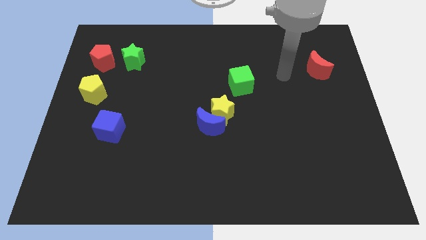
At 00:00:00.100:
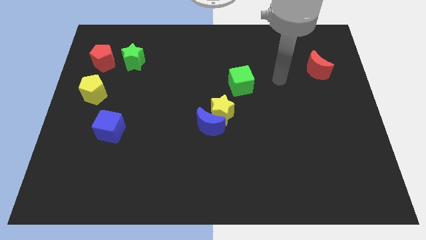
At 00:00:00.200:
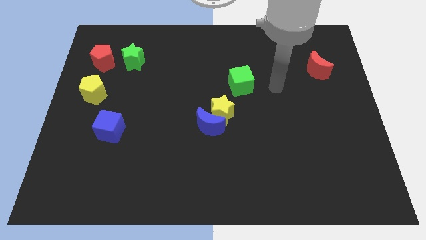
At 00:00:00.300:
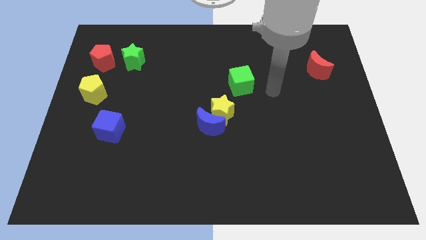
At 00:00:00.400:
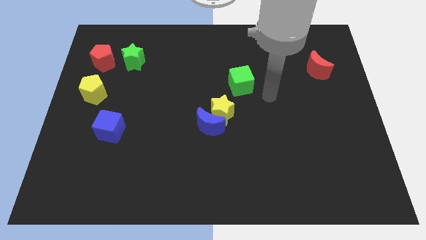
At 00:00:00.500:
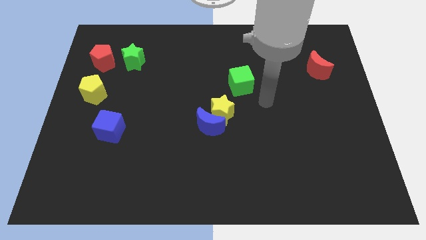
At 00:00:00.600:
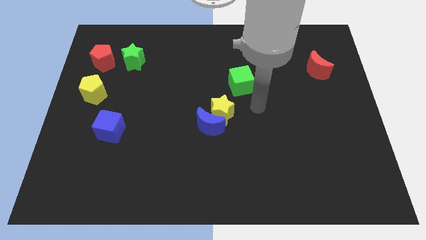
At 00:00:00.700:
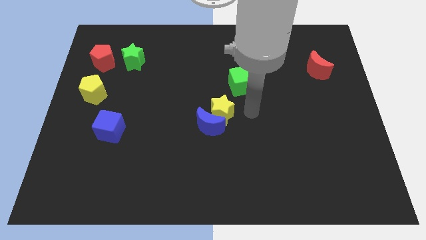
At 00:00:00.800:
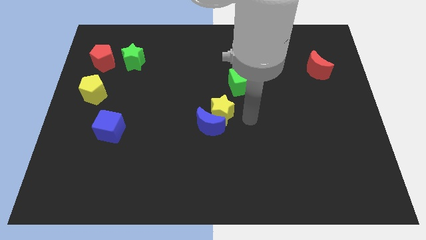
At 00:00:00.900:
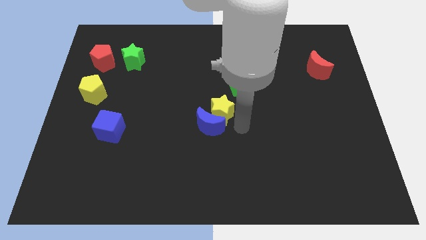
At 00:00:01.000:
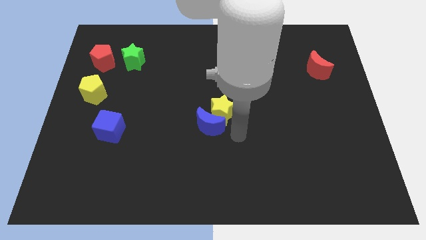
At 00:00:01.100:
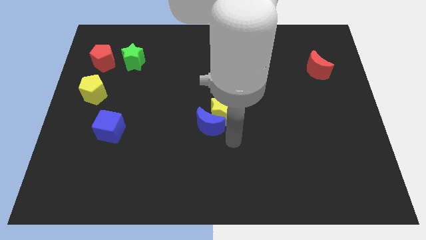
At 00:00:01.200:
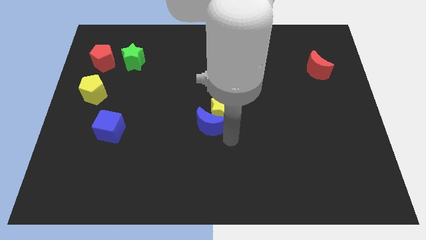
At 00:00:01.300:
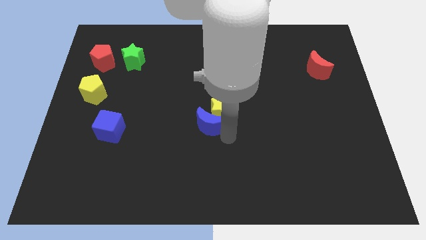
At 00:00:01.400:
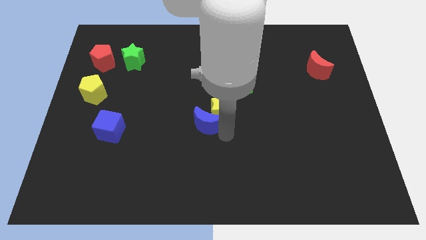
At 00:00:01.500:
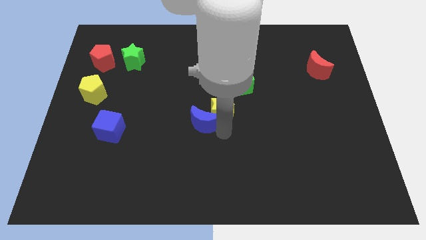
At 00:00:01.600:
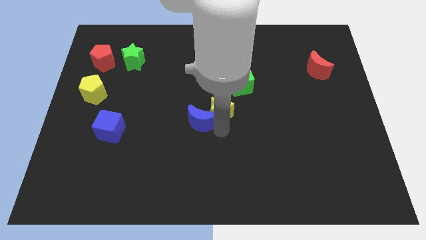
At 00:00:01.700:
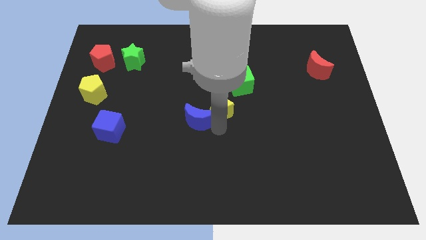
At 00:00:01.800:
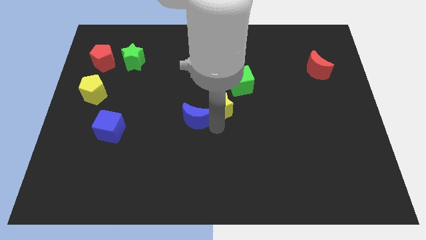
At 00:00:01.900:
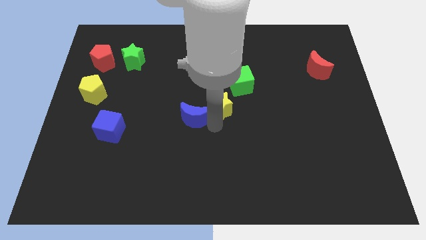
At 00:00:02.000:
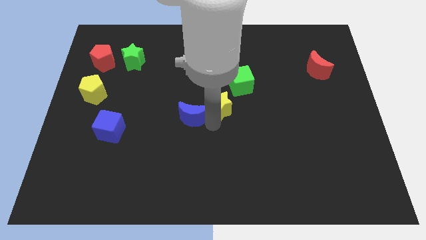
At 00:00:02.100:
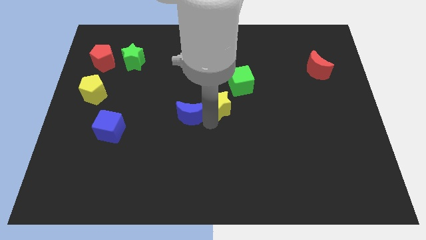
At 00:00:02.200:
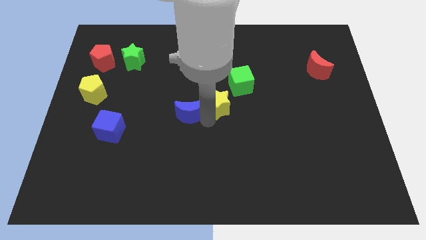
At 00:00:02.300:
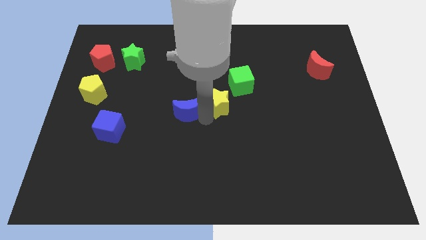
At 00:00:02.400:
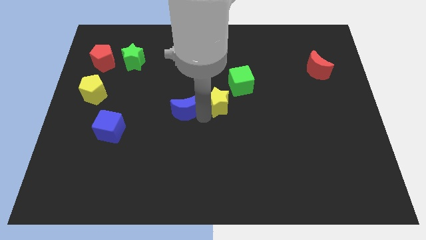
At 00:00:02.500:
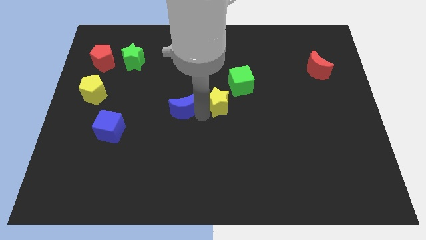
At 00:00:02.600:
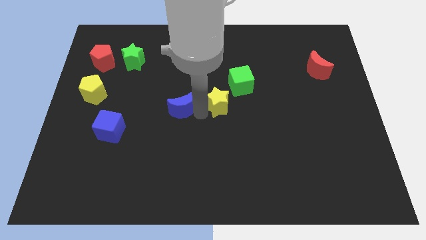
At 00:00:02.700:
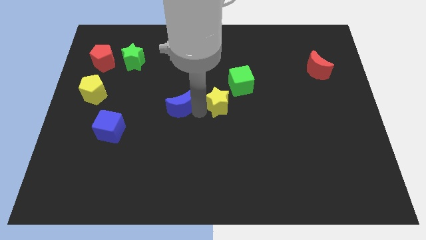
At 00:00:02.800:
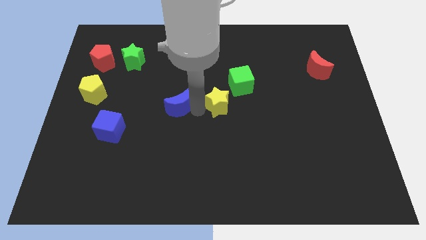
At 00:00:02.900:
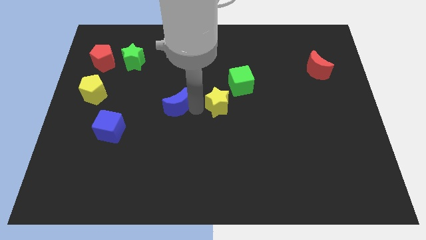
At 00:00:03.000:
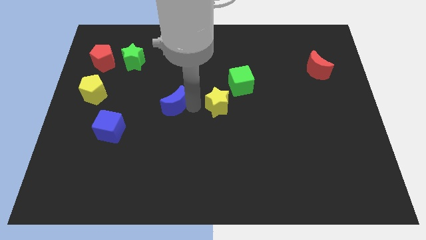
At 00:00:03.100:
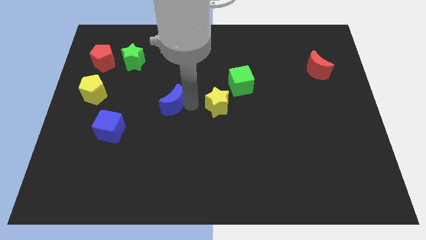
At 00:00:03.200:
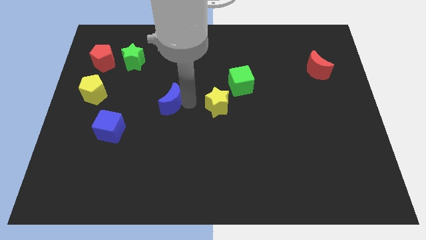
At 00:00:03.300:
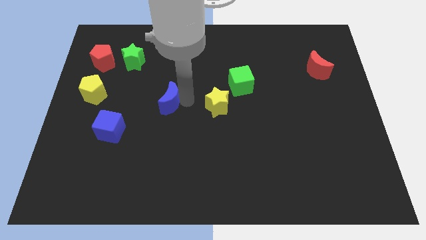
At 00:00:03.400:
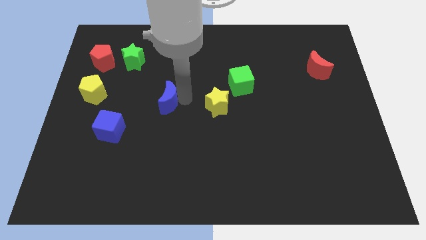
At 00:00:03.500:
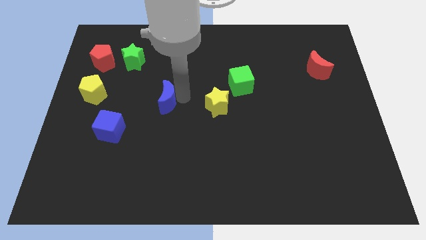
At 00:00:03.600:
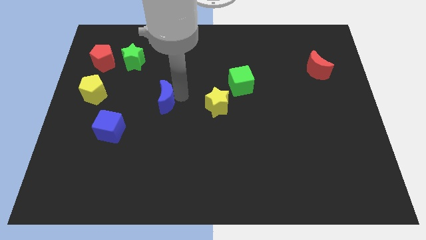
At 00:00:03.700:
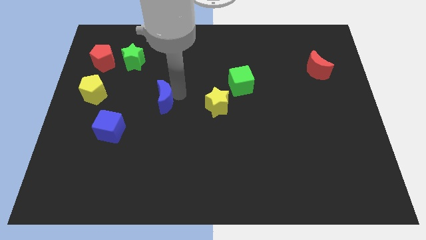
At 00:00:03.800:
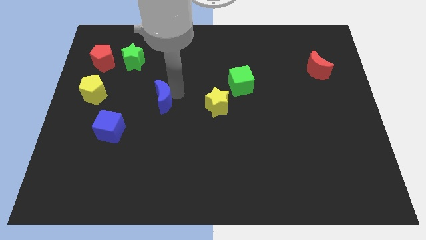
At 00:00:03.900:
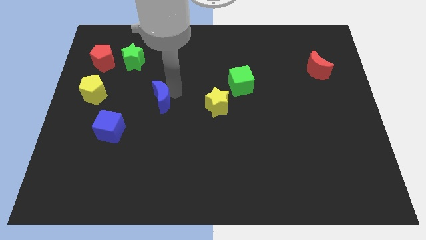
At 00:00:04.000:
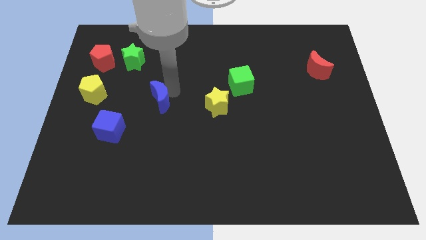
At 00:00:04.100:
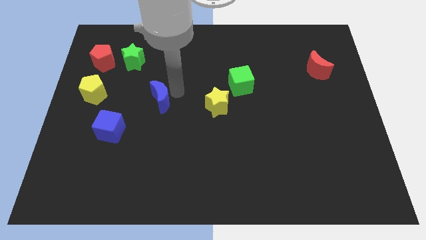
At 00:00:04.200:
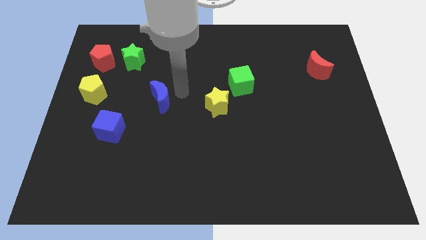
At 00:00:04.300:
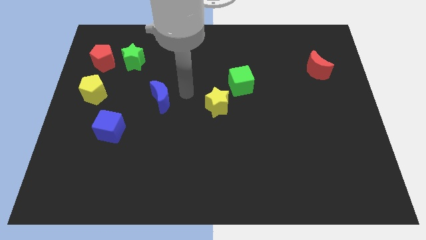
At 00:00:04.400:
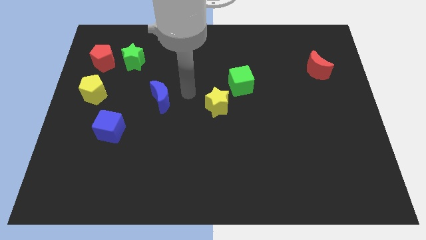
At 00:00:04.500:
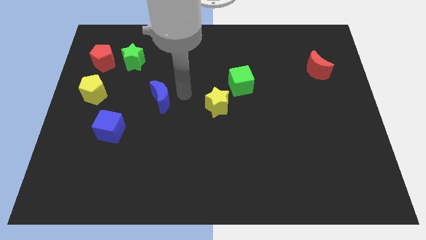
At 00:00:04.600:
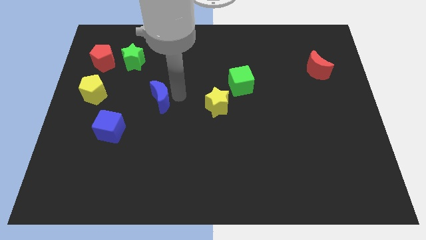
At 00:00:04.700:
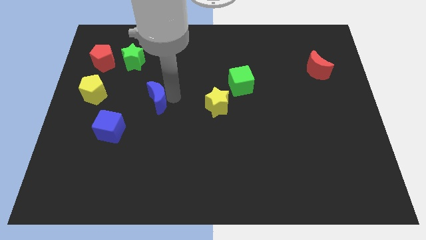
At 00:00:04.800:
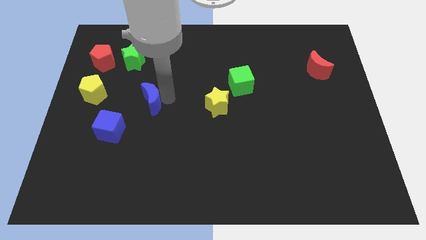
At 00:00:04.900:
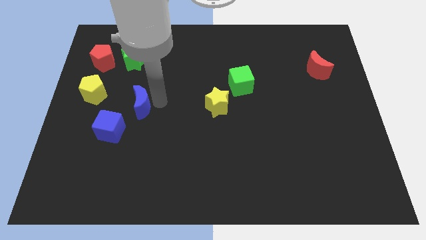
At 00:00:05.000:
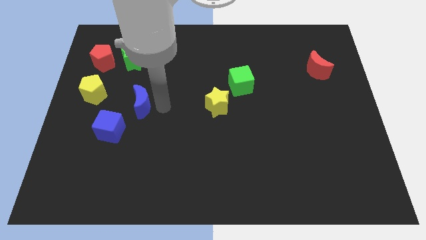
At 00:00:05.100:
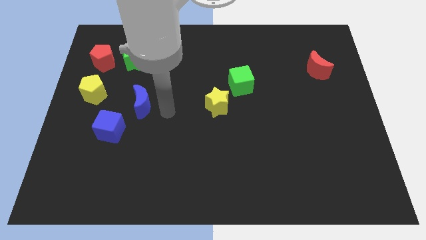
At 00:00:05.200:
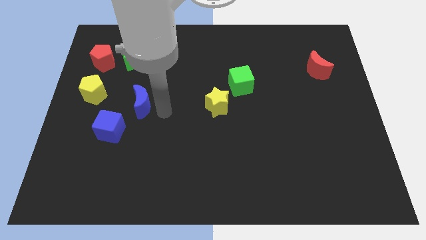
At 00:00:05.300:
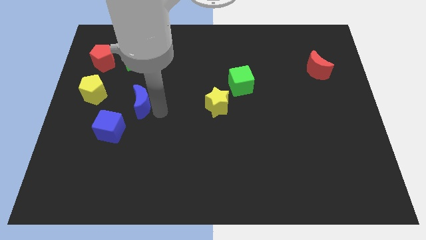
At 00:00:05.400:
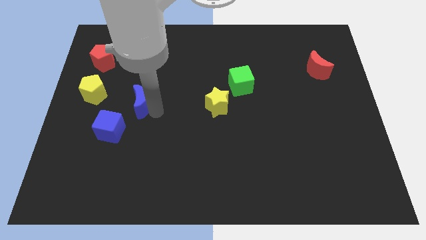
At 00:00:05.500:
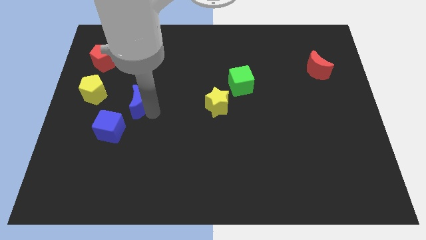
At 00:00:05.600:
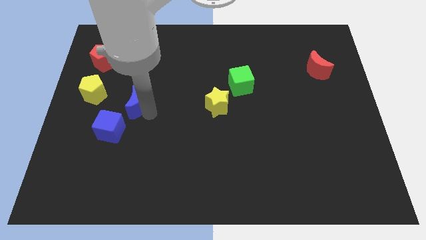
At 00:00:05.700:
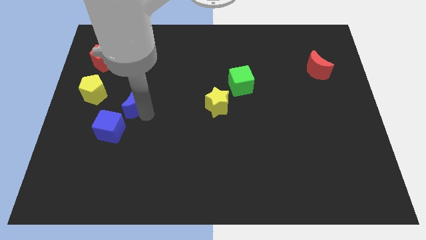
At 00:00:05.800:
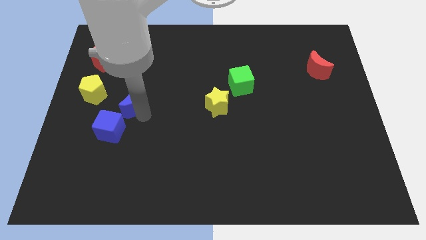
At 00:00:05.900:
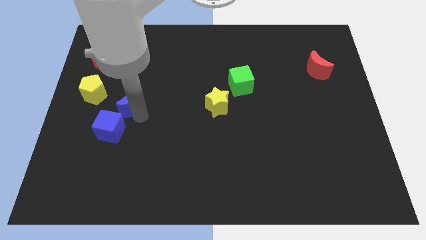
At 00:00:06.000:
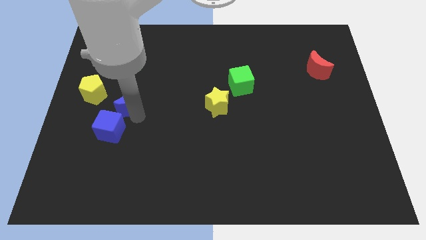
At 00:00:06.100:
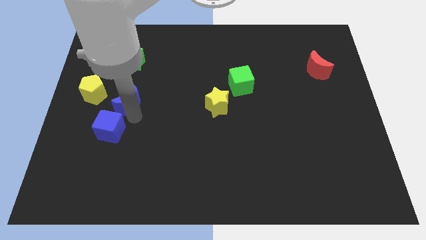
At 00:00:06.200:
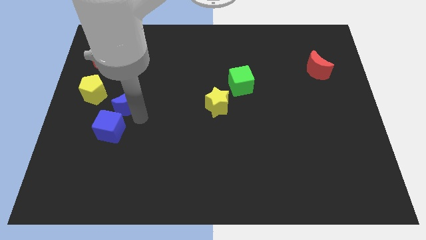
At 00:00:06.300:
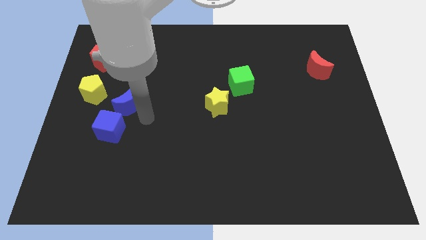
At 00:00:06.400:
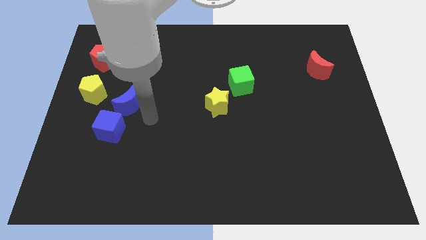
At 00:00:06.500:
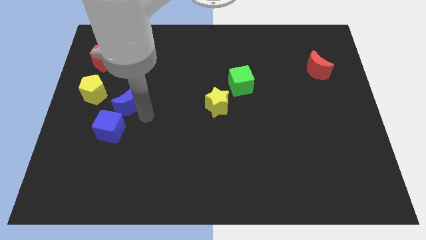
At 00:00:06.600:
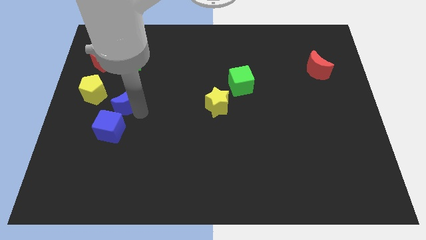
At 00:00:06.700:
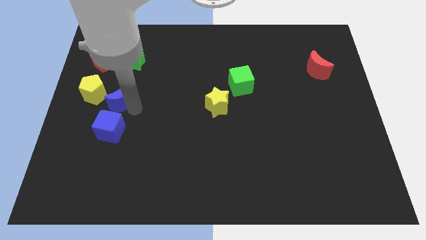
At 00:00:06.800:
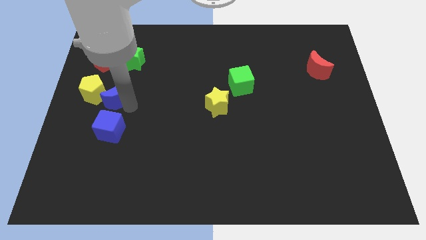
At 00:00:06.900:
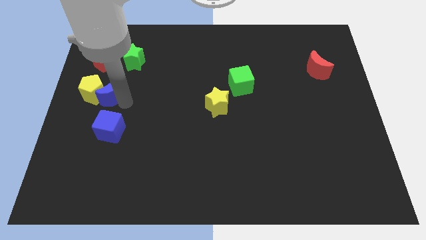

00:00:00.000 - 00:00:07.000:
put the blue moon to the yellow pentagon

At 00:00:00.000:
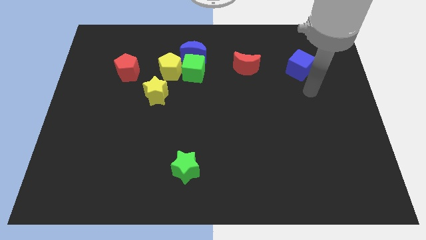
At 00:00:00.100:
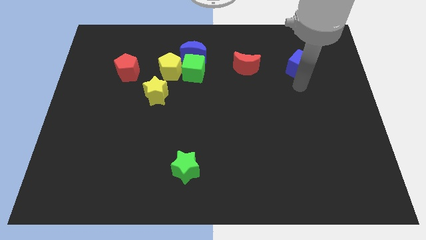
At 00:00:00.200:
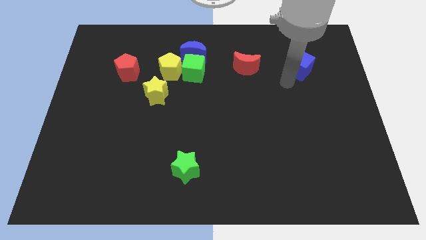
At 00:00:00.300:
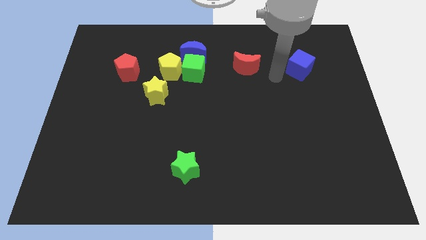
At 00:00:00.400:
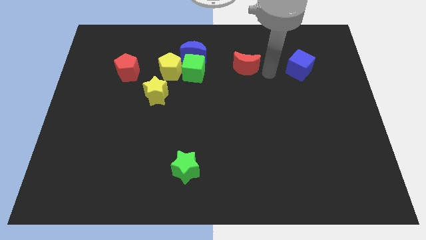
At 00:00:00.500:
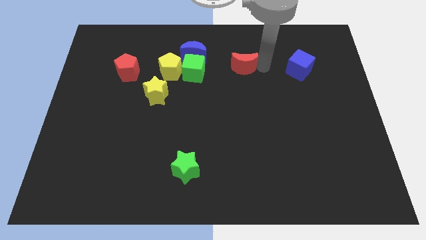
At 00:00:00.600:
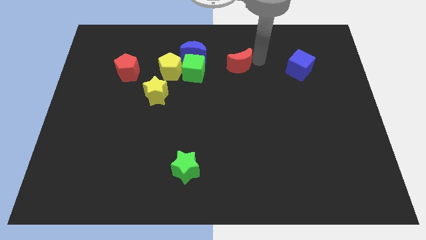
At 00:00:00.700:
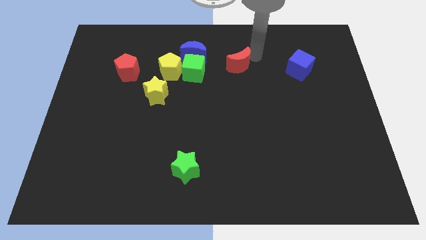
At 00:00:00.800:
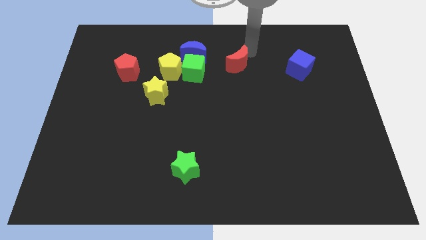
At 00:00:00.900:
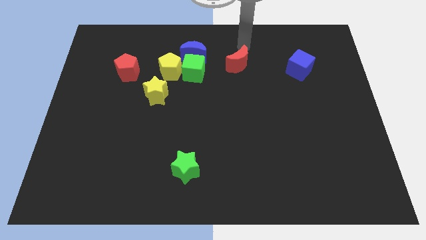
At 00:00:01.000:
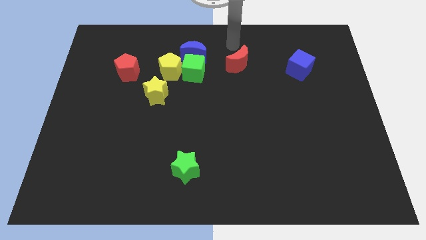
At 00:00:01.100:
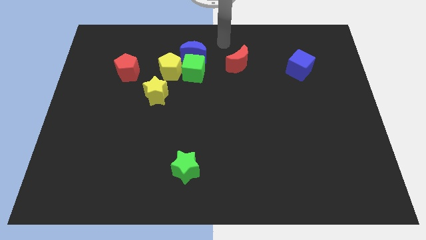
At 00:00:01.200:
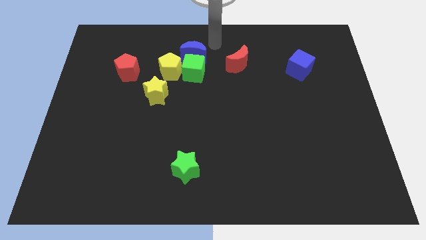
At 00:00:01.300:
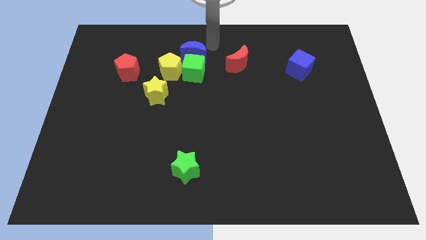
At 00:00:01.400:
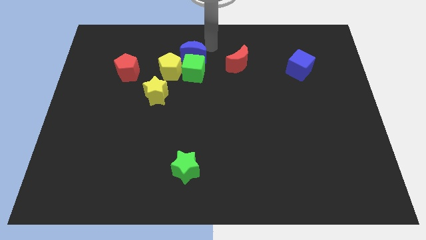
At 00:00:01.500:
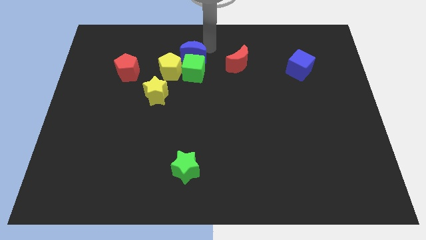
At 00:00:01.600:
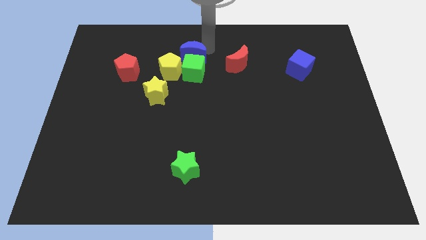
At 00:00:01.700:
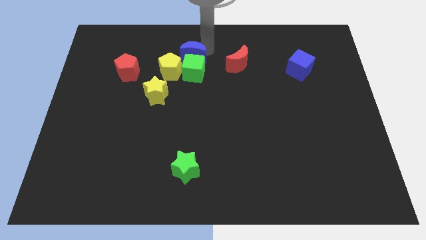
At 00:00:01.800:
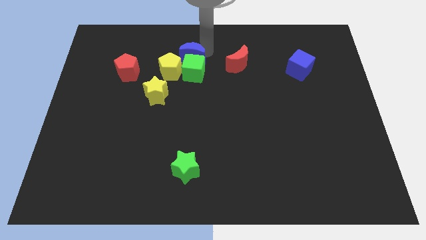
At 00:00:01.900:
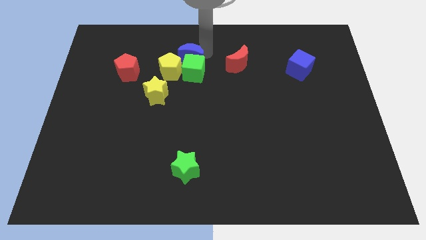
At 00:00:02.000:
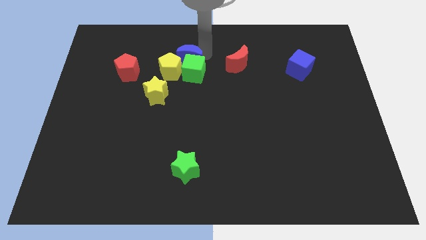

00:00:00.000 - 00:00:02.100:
slide the blue moon next to the yellow pentagon
